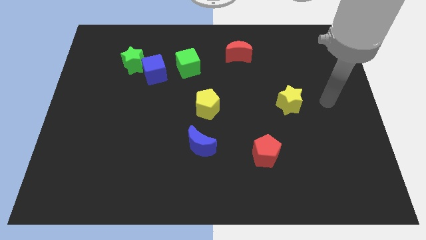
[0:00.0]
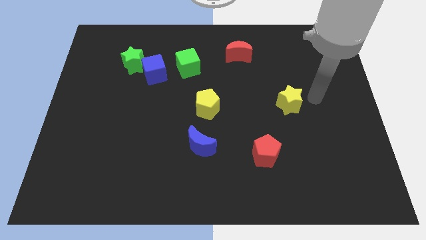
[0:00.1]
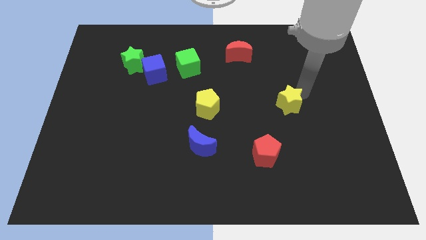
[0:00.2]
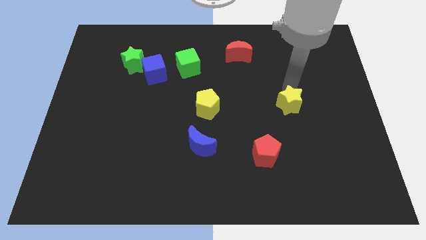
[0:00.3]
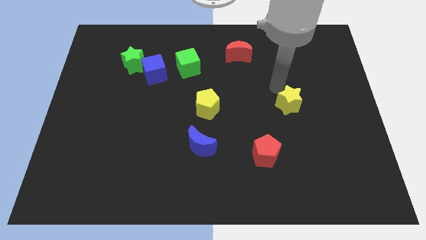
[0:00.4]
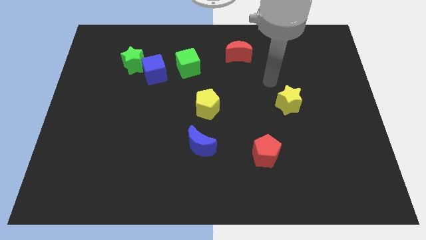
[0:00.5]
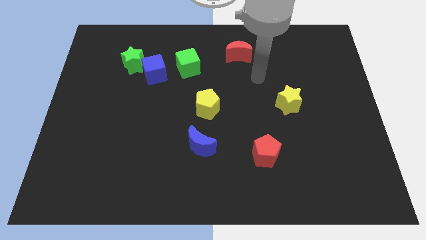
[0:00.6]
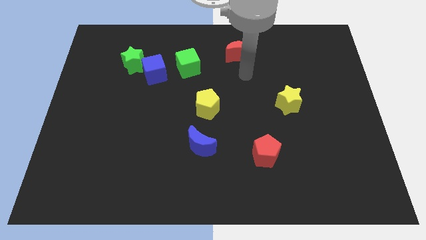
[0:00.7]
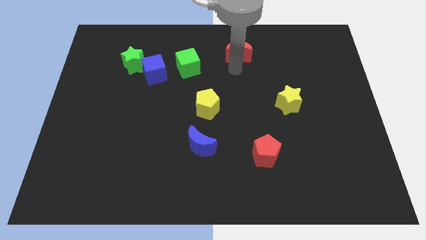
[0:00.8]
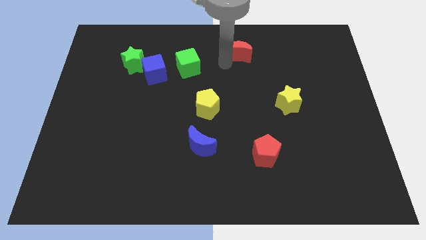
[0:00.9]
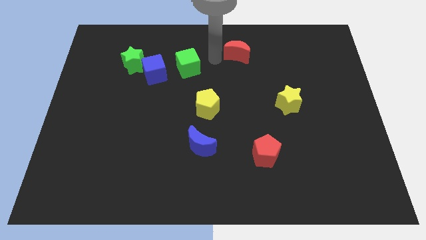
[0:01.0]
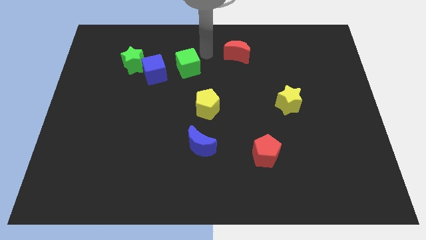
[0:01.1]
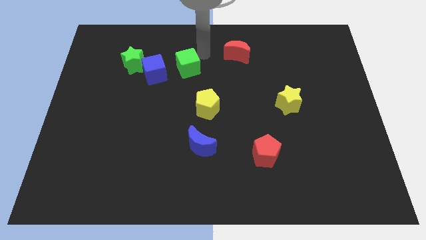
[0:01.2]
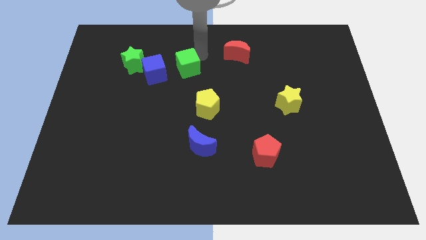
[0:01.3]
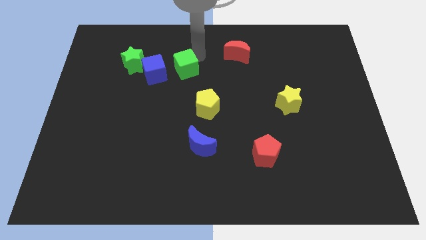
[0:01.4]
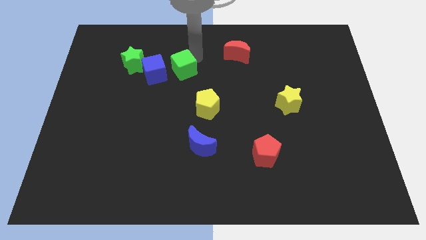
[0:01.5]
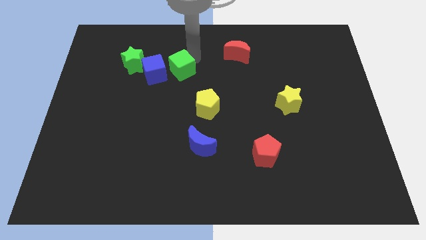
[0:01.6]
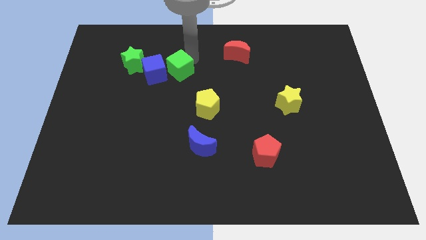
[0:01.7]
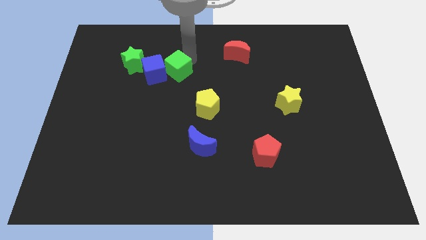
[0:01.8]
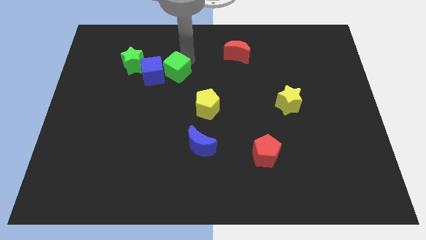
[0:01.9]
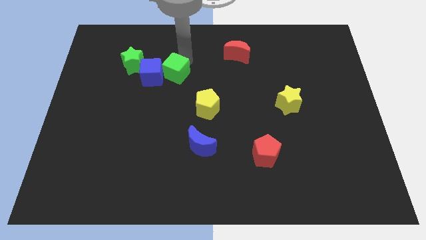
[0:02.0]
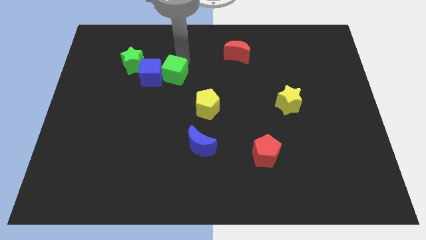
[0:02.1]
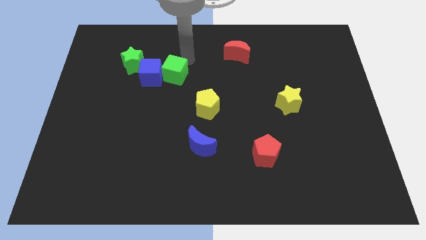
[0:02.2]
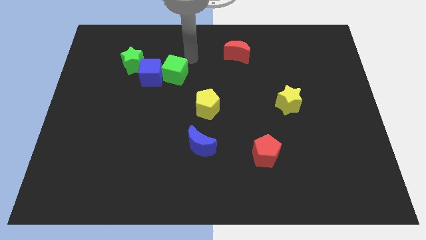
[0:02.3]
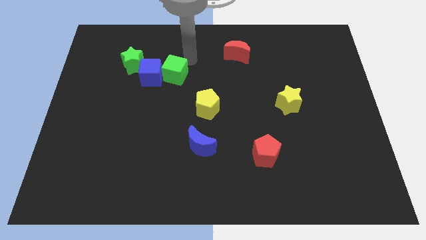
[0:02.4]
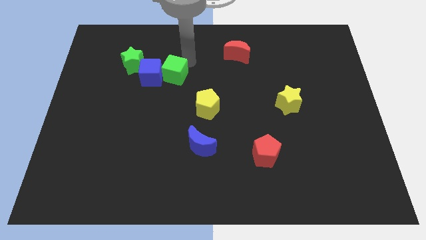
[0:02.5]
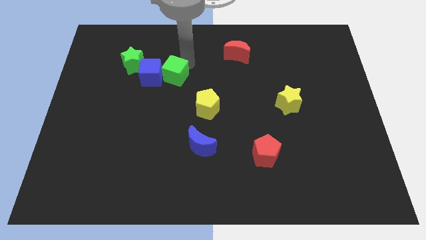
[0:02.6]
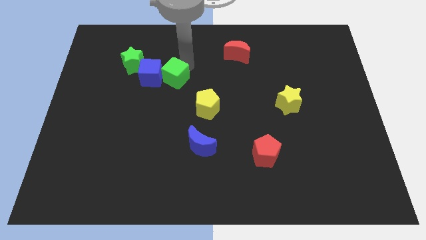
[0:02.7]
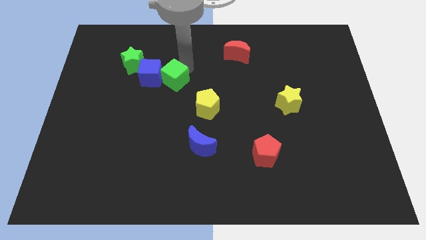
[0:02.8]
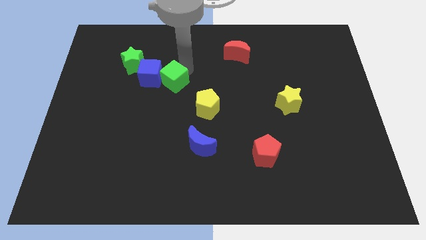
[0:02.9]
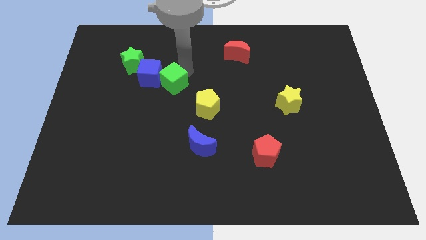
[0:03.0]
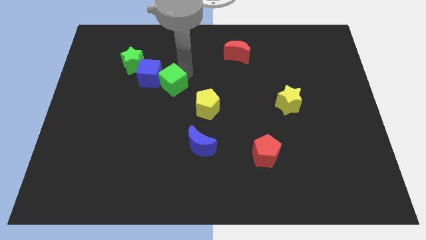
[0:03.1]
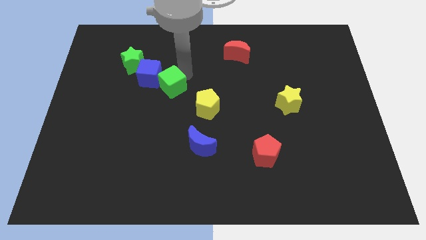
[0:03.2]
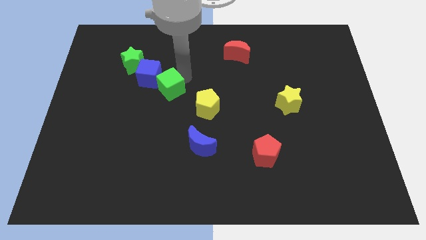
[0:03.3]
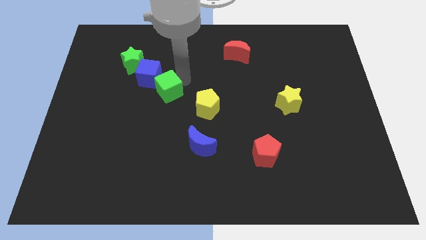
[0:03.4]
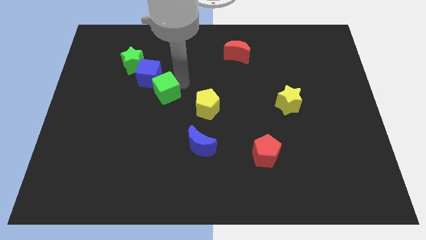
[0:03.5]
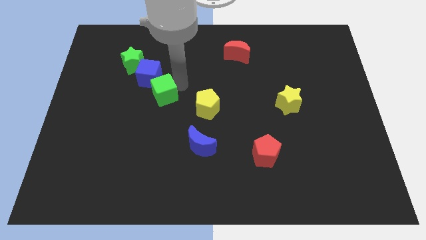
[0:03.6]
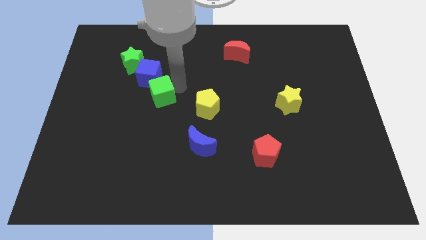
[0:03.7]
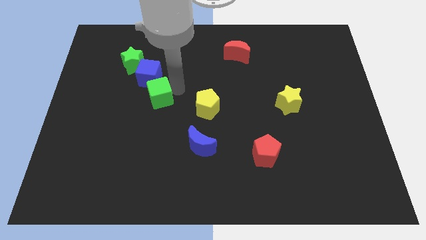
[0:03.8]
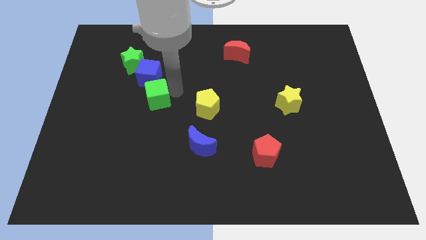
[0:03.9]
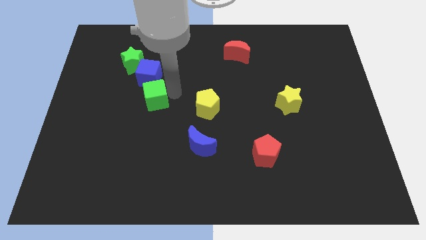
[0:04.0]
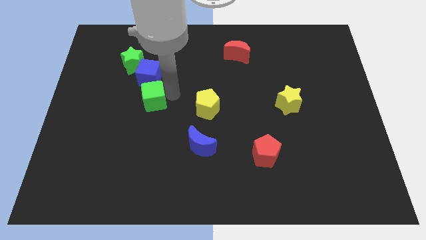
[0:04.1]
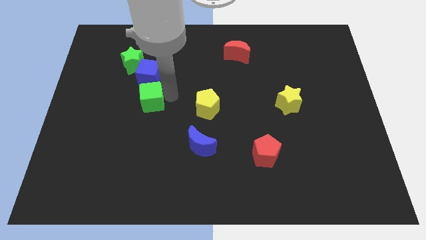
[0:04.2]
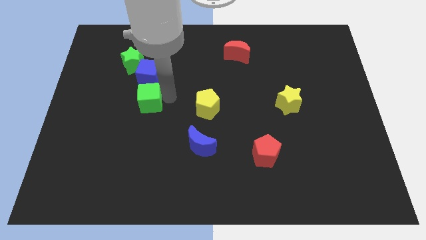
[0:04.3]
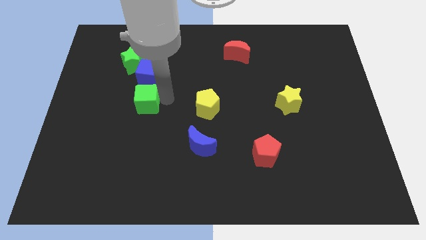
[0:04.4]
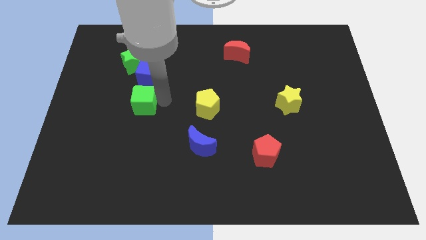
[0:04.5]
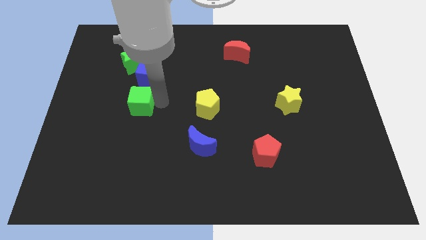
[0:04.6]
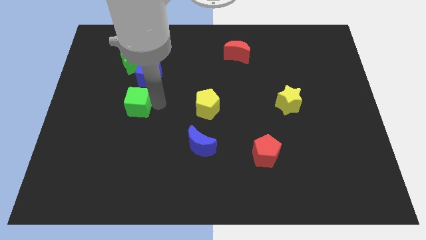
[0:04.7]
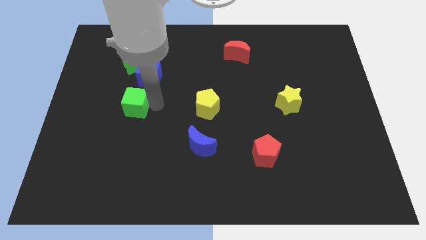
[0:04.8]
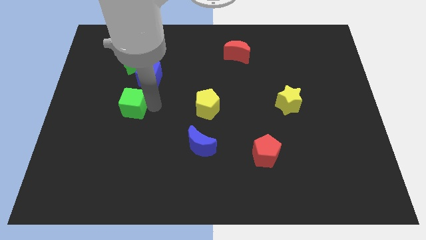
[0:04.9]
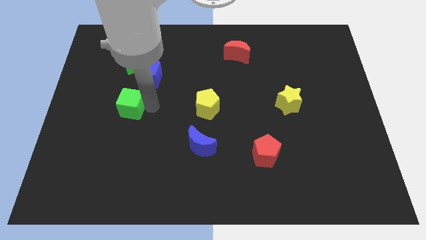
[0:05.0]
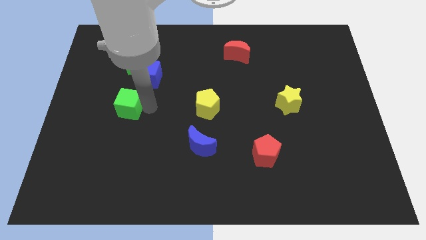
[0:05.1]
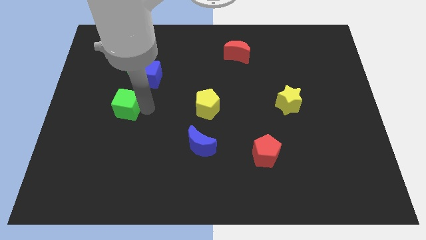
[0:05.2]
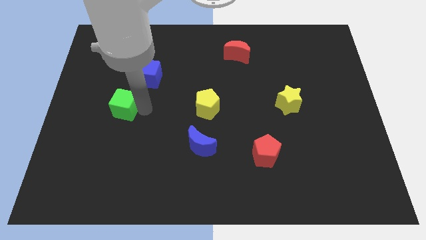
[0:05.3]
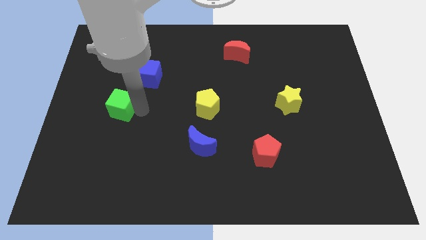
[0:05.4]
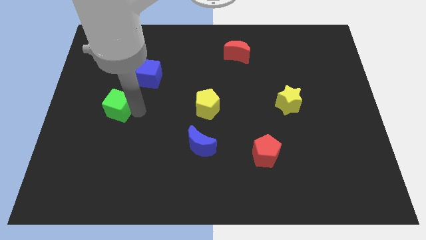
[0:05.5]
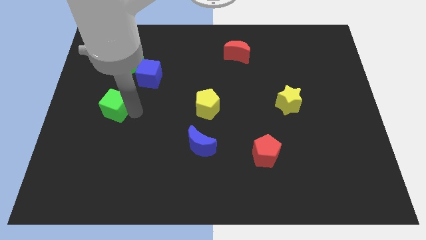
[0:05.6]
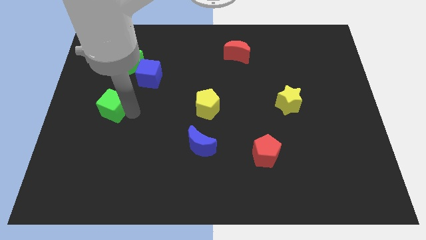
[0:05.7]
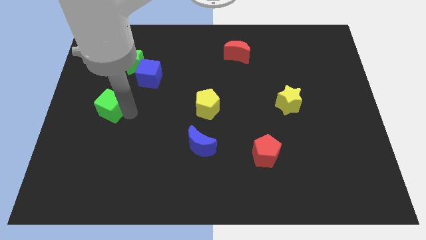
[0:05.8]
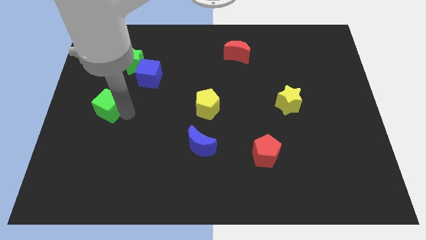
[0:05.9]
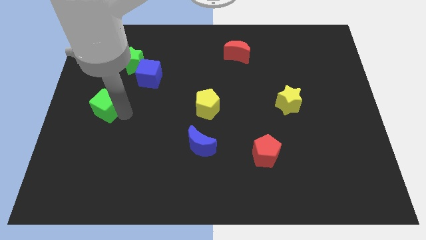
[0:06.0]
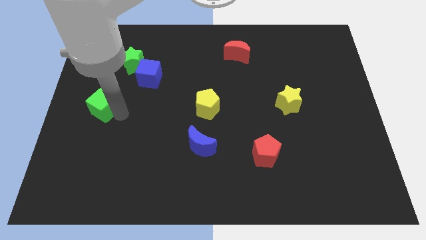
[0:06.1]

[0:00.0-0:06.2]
slide the green cube to the left side

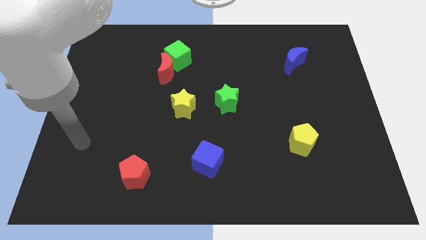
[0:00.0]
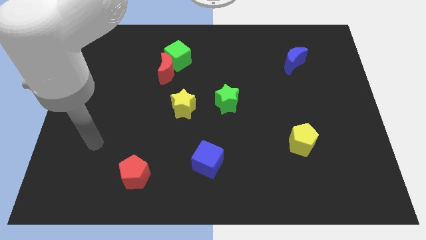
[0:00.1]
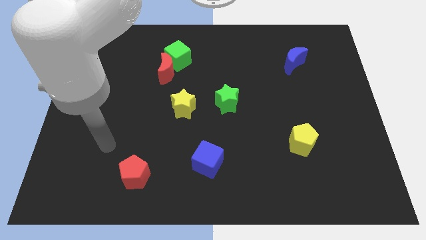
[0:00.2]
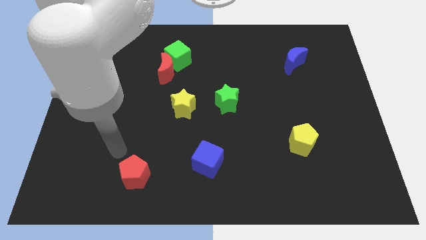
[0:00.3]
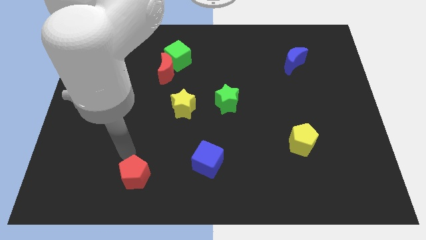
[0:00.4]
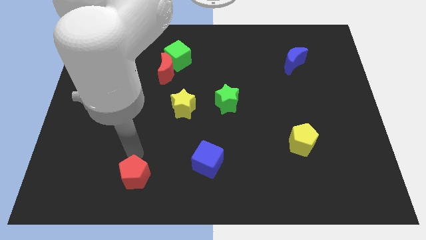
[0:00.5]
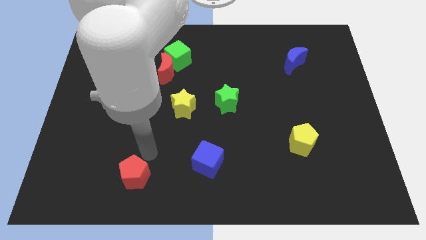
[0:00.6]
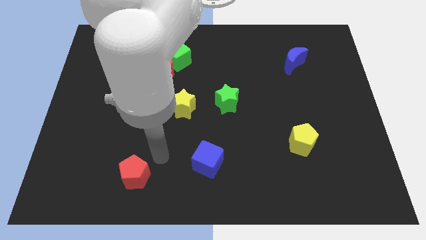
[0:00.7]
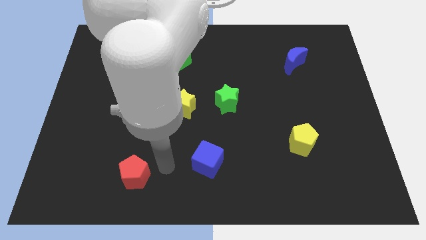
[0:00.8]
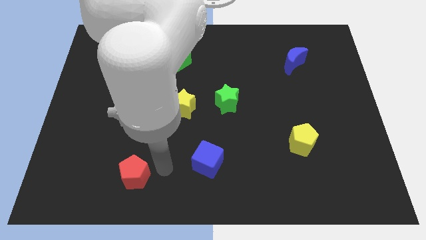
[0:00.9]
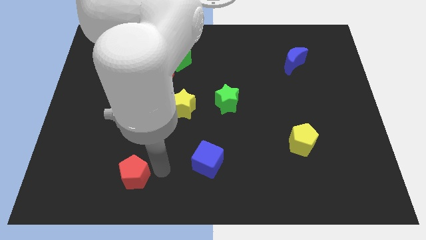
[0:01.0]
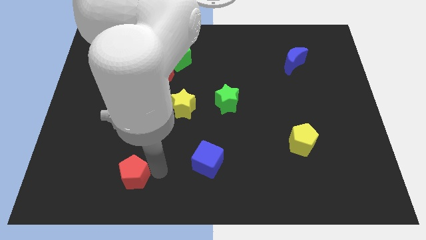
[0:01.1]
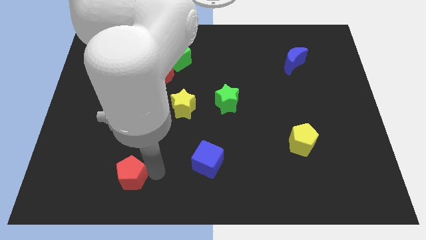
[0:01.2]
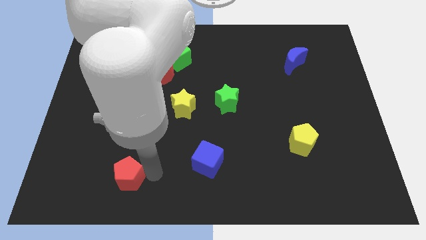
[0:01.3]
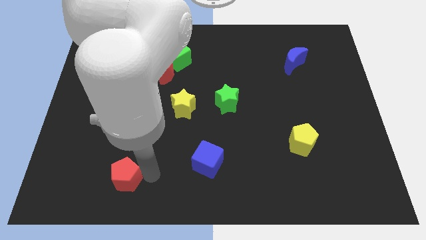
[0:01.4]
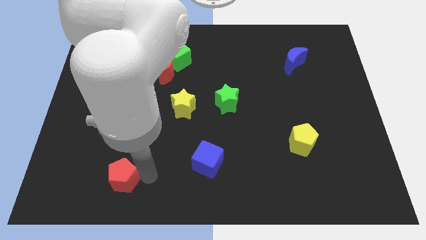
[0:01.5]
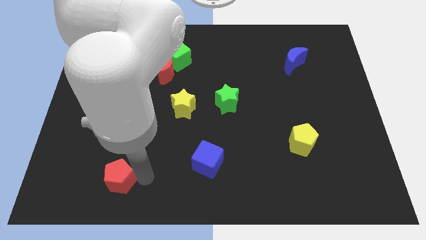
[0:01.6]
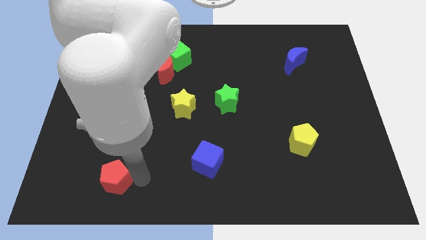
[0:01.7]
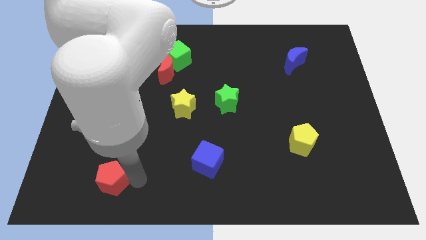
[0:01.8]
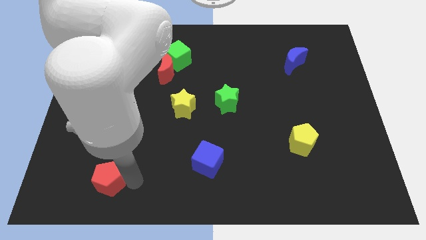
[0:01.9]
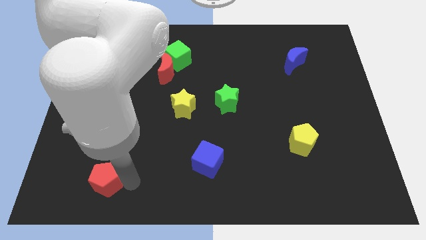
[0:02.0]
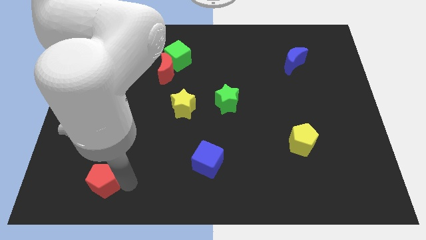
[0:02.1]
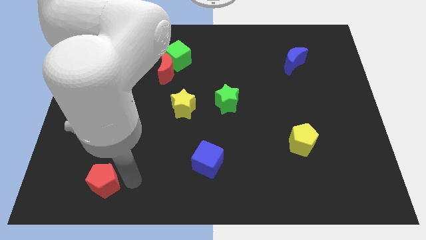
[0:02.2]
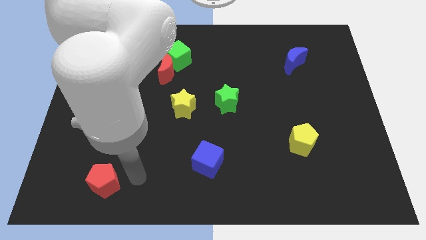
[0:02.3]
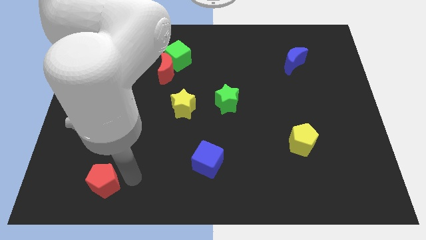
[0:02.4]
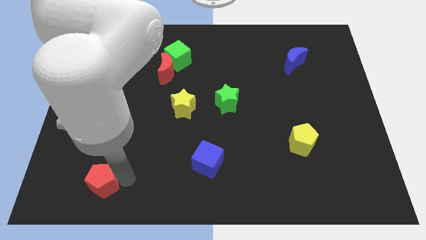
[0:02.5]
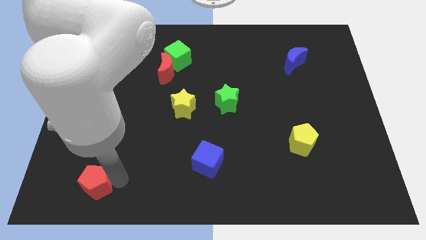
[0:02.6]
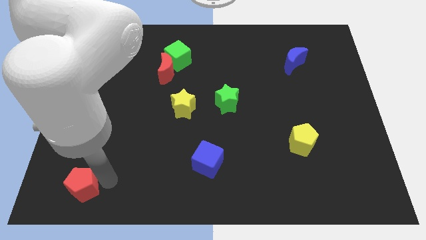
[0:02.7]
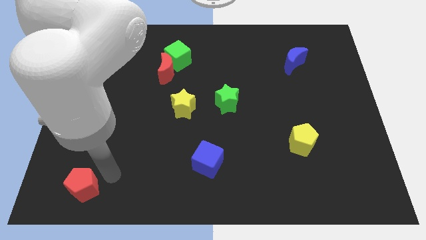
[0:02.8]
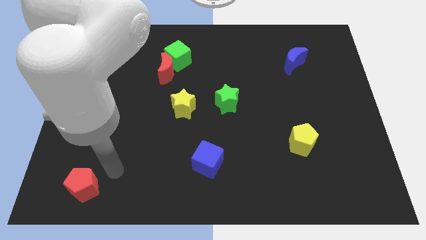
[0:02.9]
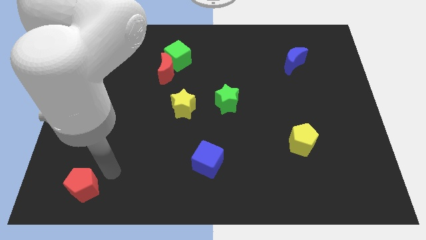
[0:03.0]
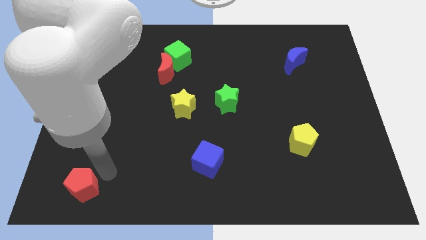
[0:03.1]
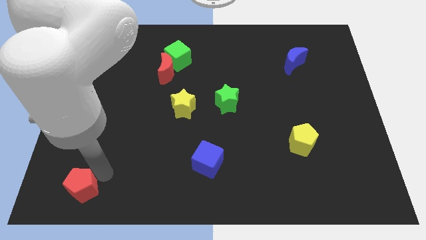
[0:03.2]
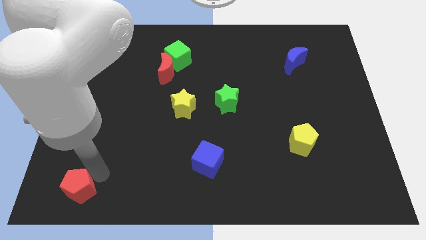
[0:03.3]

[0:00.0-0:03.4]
push the red pentagon to the lower left corner
